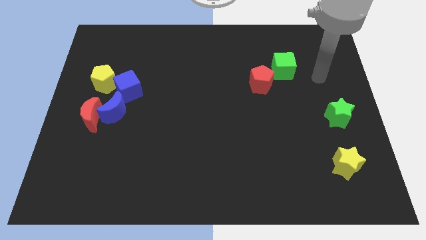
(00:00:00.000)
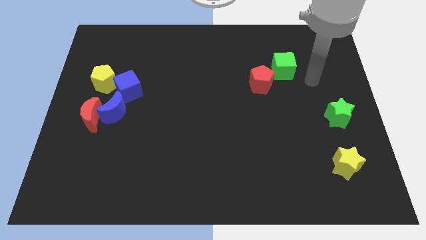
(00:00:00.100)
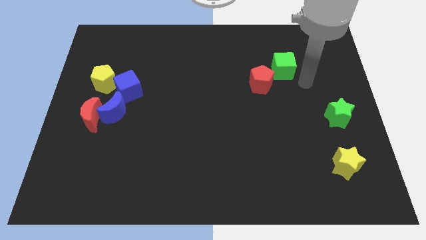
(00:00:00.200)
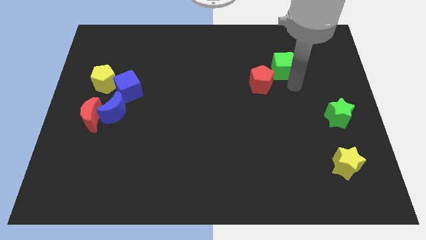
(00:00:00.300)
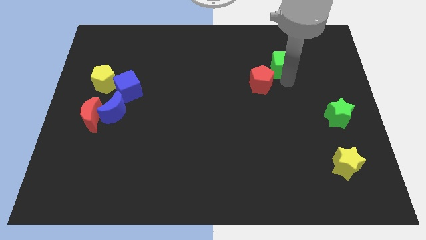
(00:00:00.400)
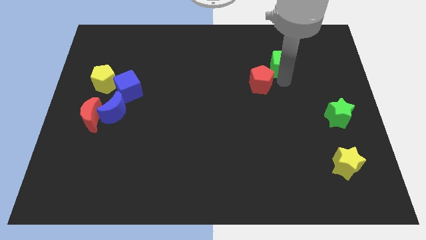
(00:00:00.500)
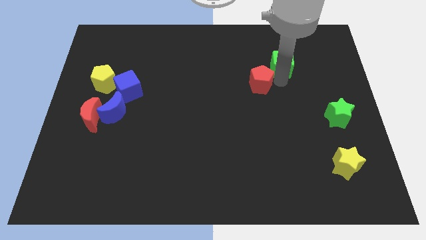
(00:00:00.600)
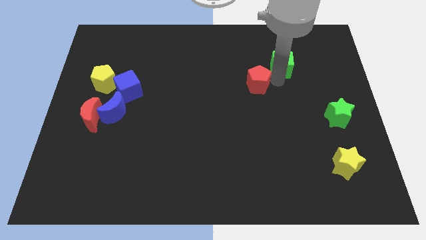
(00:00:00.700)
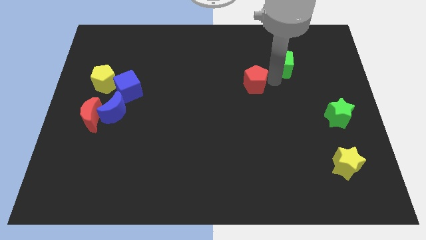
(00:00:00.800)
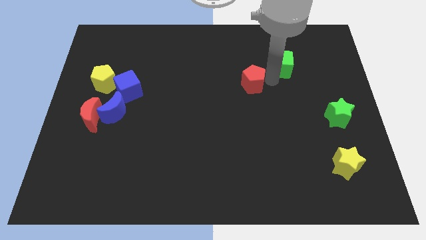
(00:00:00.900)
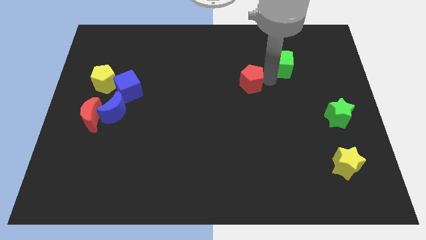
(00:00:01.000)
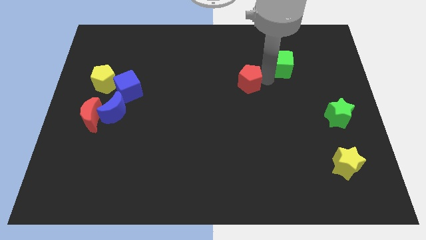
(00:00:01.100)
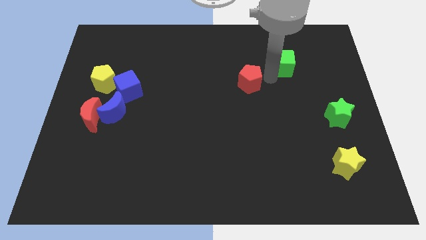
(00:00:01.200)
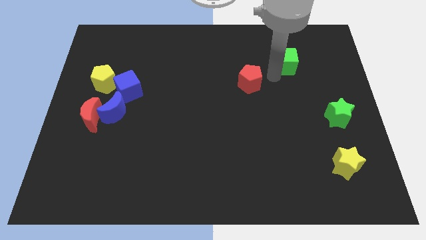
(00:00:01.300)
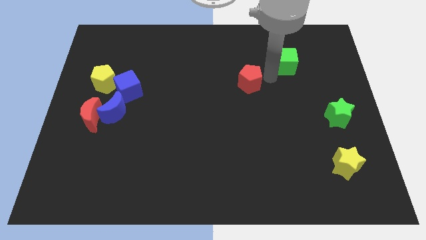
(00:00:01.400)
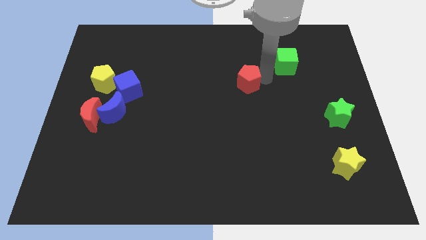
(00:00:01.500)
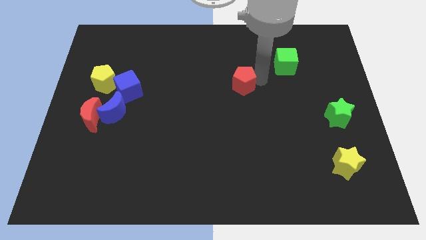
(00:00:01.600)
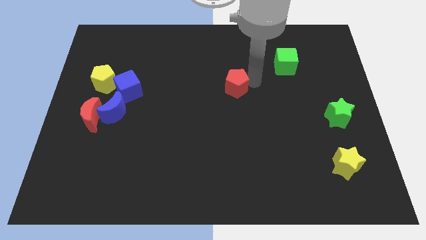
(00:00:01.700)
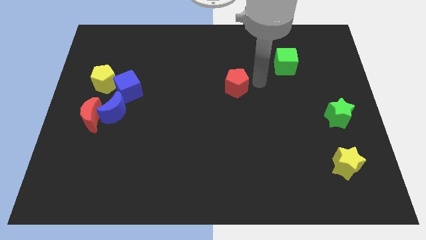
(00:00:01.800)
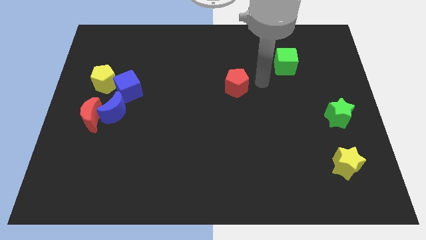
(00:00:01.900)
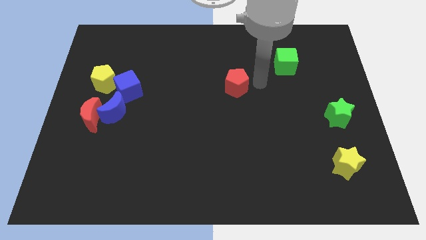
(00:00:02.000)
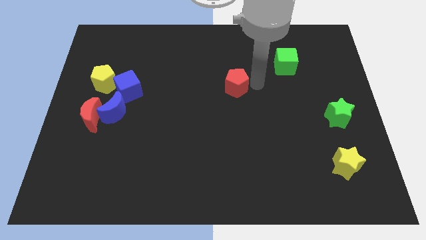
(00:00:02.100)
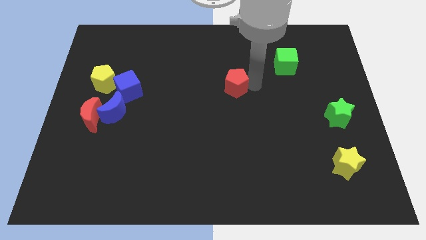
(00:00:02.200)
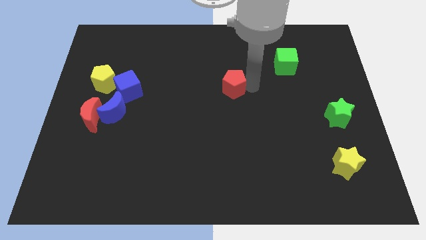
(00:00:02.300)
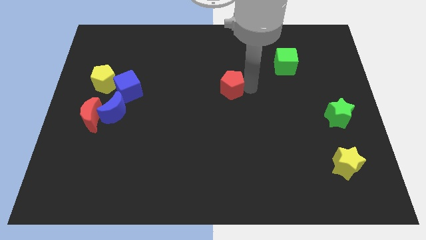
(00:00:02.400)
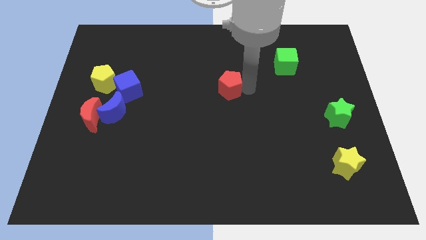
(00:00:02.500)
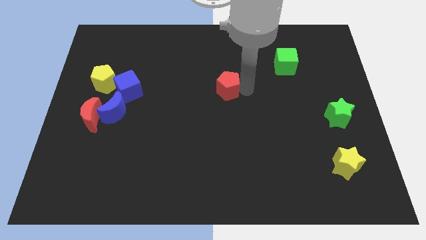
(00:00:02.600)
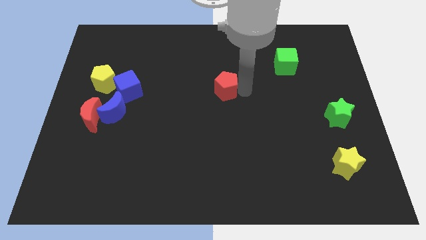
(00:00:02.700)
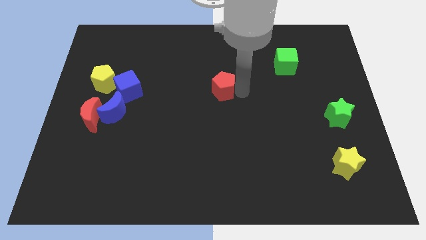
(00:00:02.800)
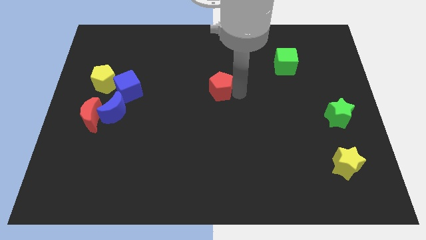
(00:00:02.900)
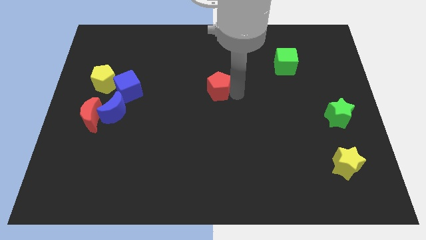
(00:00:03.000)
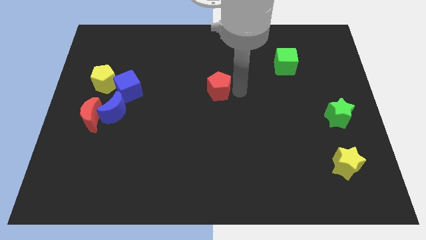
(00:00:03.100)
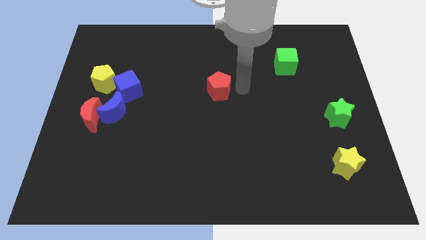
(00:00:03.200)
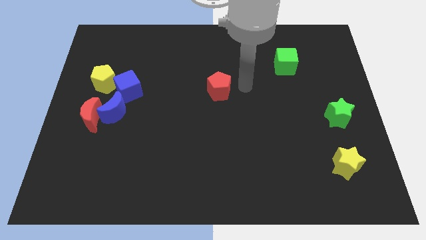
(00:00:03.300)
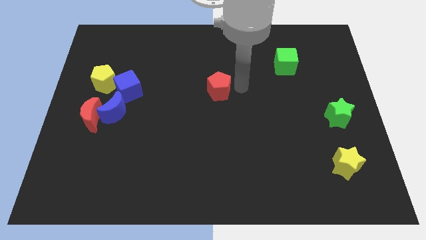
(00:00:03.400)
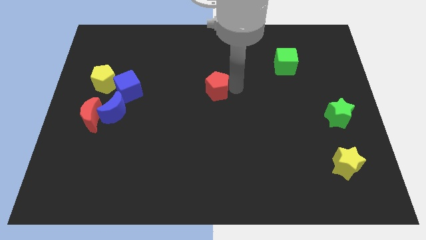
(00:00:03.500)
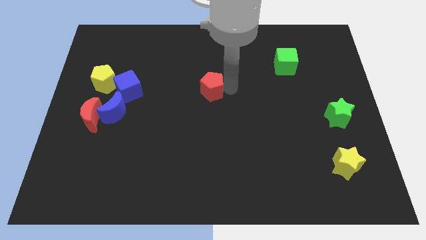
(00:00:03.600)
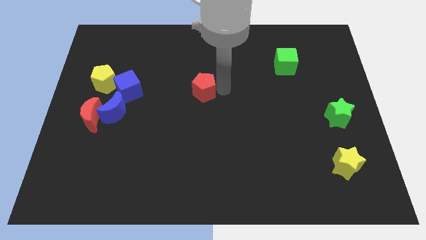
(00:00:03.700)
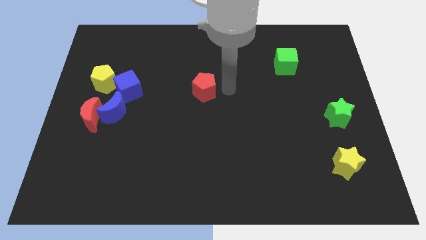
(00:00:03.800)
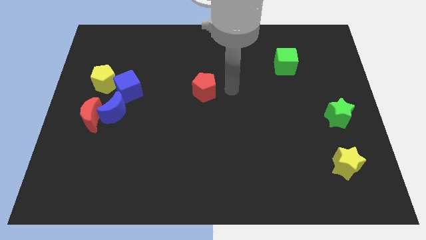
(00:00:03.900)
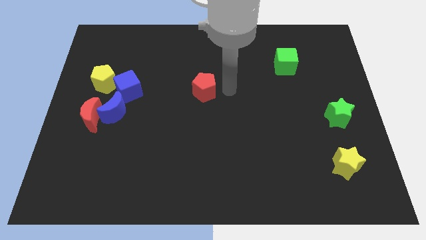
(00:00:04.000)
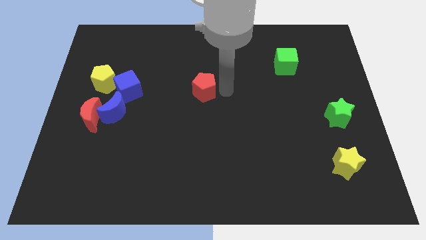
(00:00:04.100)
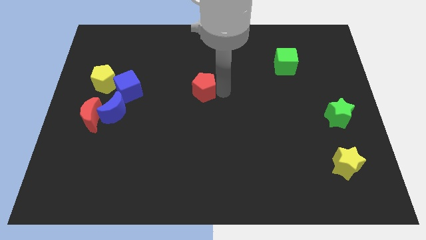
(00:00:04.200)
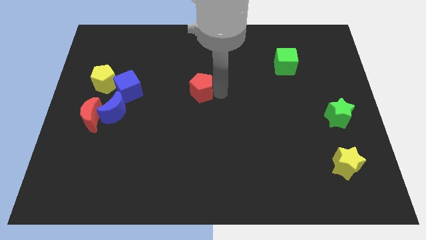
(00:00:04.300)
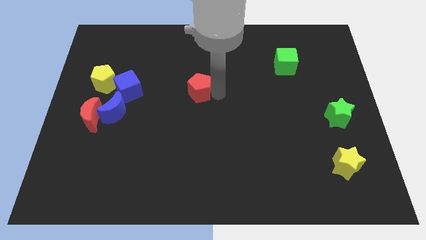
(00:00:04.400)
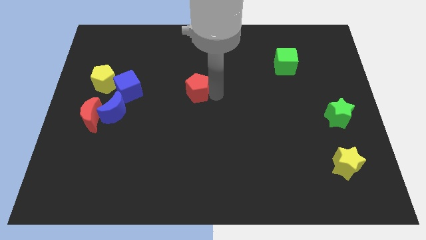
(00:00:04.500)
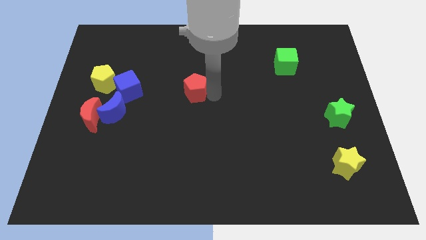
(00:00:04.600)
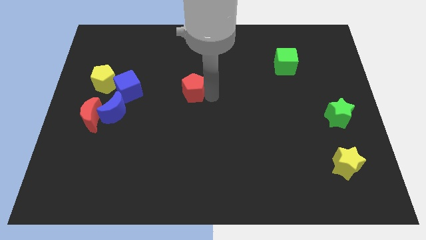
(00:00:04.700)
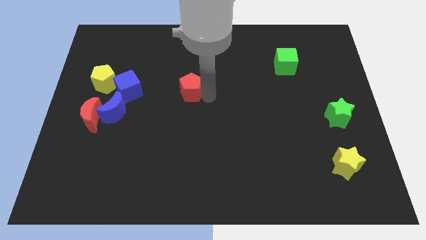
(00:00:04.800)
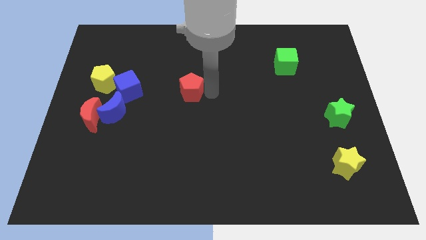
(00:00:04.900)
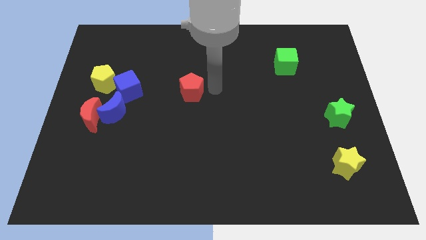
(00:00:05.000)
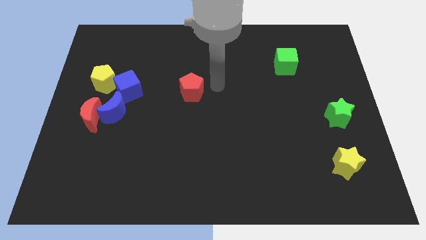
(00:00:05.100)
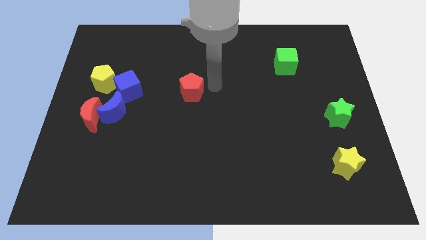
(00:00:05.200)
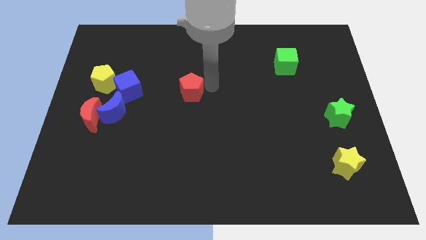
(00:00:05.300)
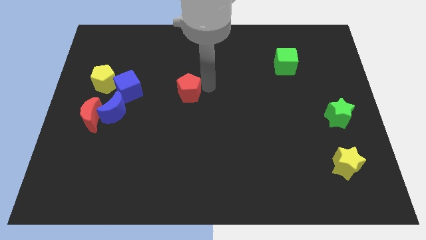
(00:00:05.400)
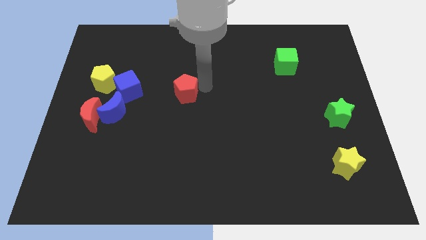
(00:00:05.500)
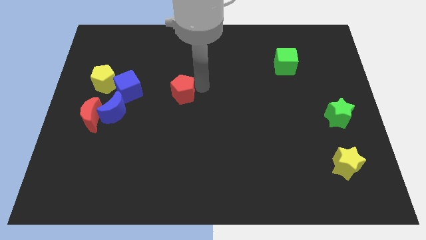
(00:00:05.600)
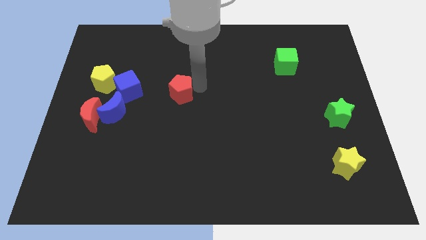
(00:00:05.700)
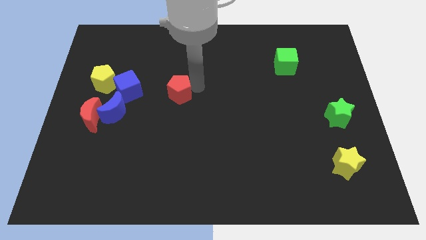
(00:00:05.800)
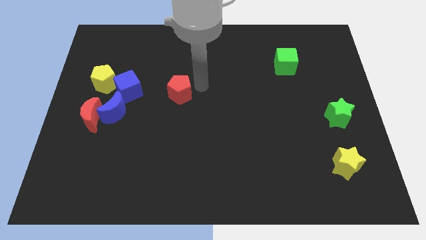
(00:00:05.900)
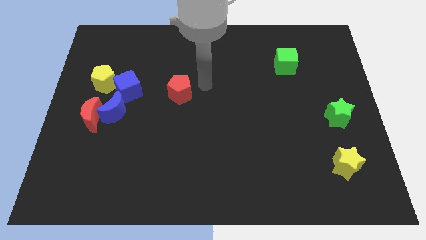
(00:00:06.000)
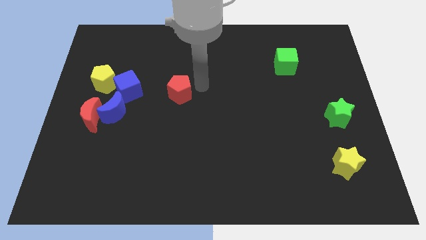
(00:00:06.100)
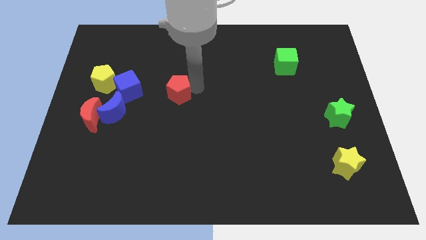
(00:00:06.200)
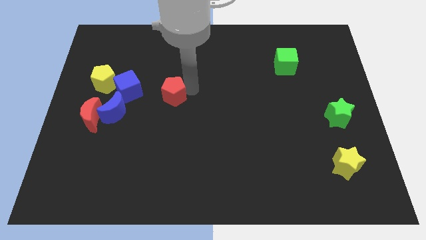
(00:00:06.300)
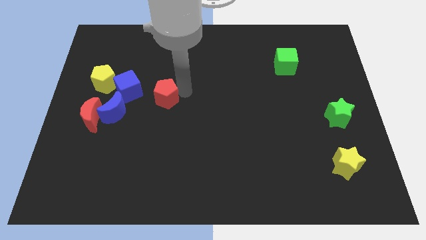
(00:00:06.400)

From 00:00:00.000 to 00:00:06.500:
put the red pentagon to the bottom right of the blue cube

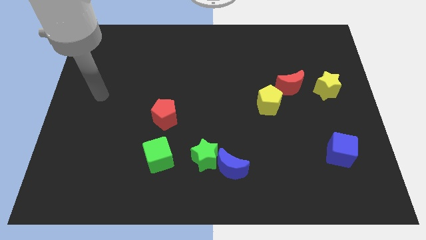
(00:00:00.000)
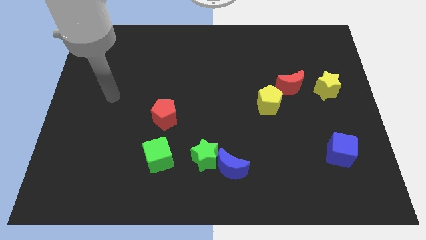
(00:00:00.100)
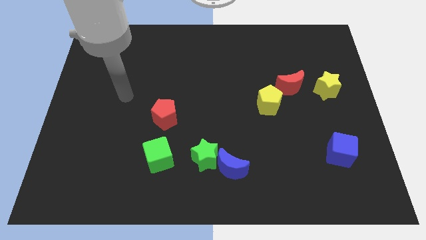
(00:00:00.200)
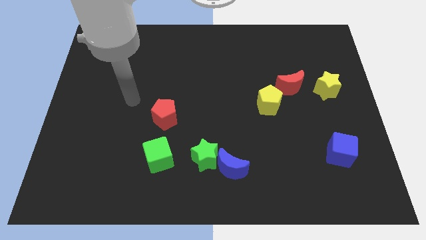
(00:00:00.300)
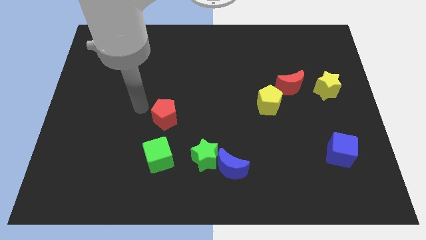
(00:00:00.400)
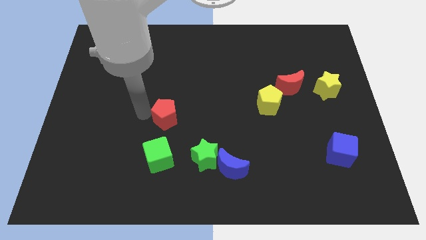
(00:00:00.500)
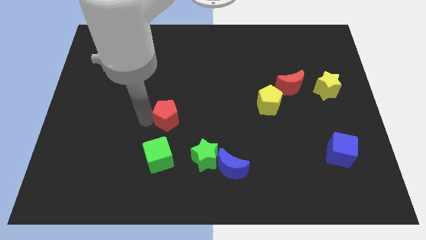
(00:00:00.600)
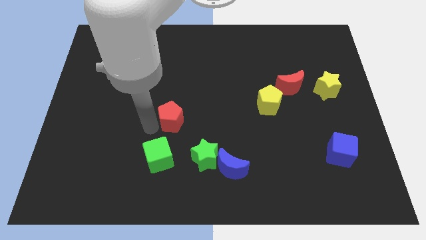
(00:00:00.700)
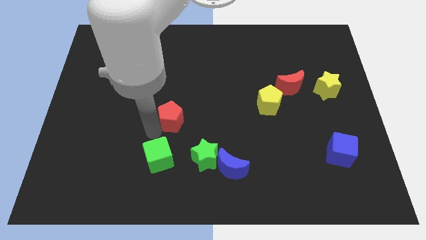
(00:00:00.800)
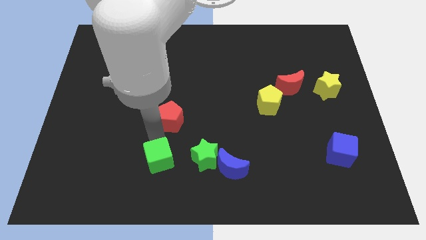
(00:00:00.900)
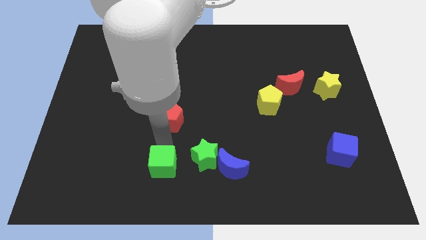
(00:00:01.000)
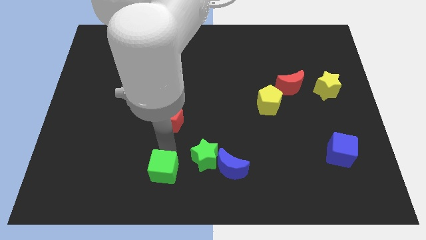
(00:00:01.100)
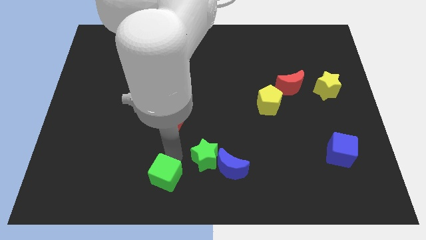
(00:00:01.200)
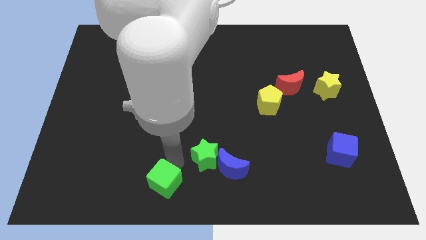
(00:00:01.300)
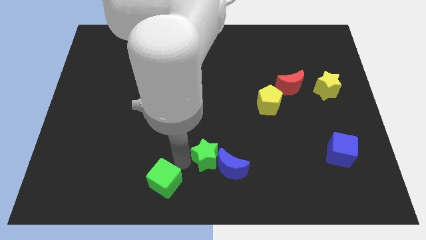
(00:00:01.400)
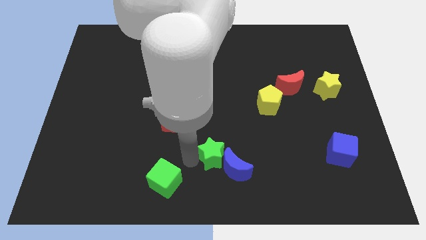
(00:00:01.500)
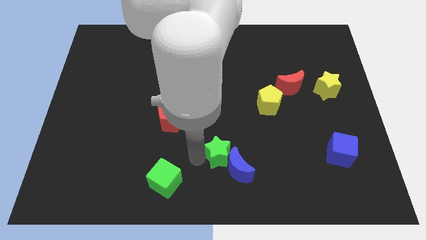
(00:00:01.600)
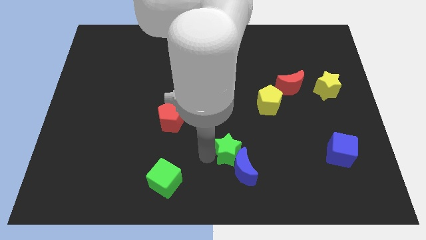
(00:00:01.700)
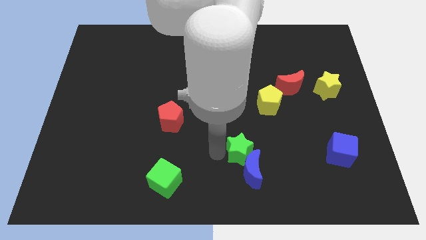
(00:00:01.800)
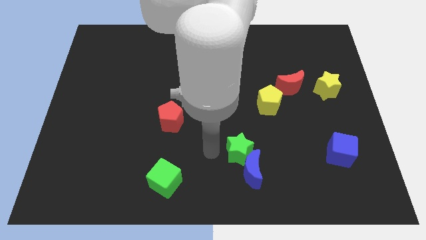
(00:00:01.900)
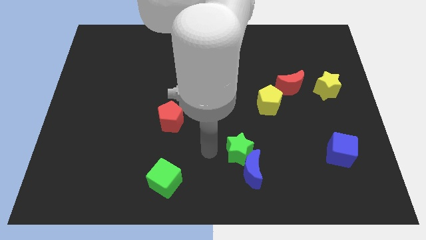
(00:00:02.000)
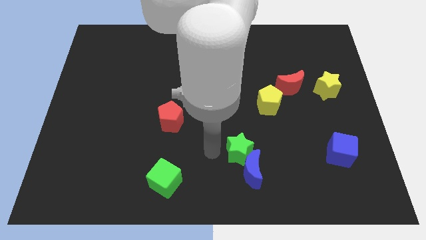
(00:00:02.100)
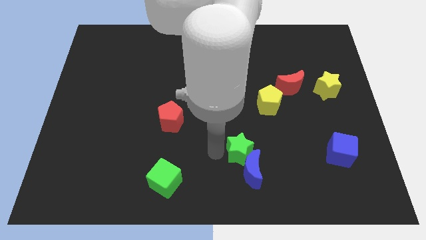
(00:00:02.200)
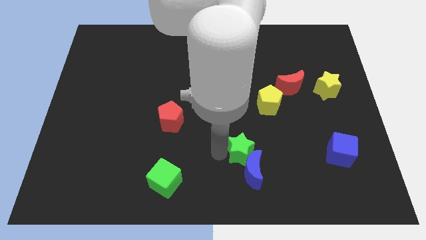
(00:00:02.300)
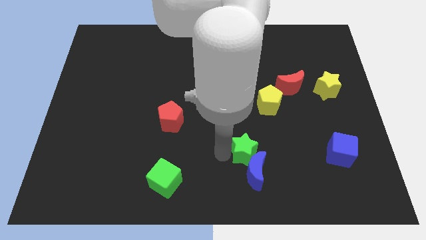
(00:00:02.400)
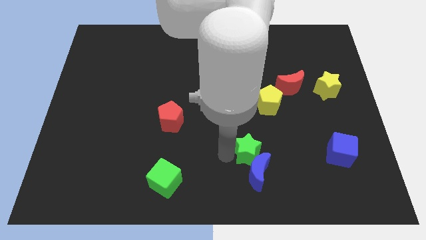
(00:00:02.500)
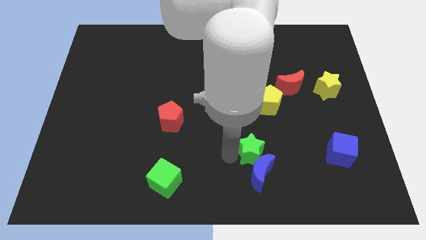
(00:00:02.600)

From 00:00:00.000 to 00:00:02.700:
put the green star to the top right of the blue moon
